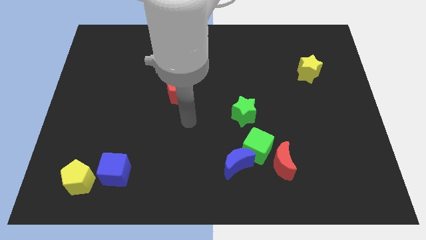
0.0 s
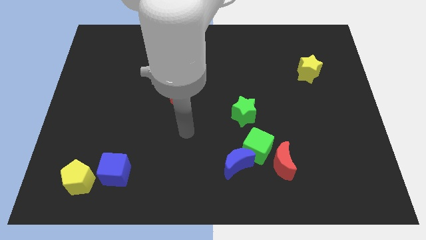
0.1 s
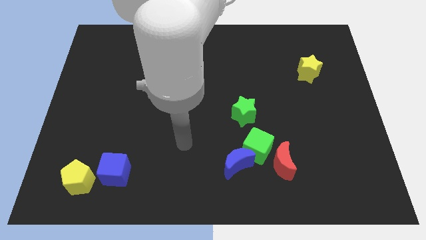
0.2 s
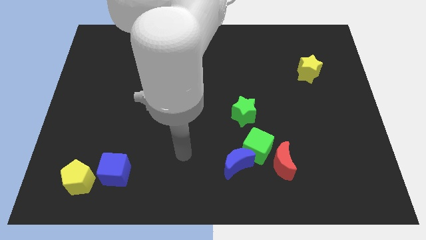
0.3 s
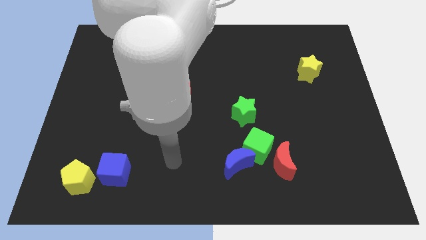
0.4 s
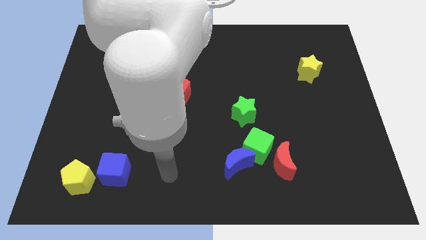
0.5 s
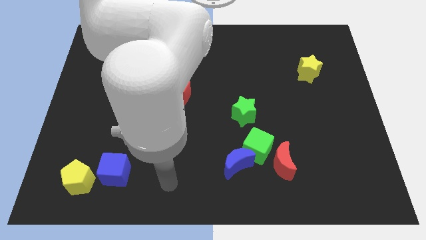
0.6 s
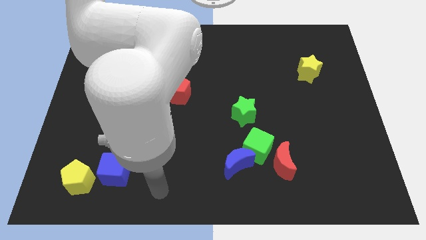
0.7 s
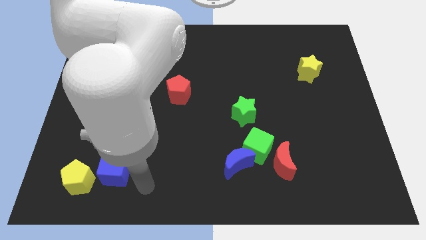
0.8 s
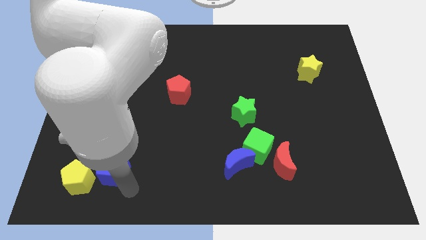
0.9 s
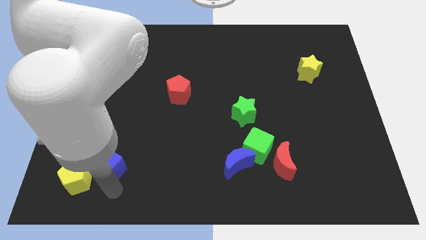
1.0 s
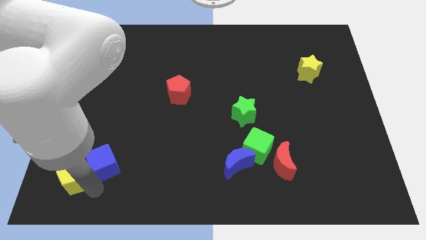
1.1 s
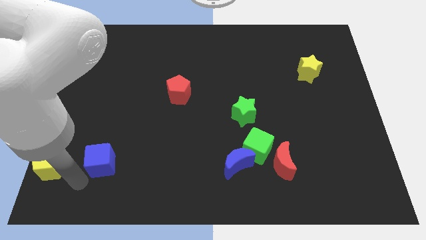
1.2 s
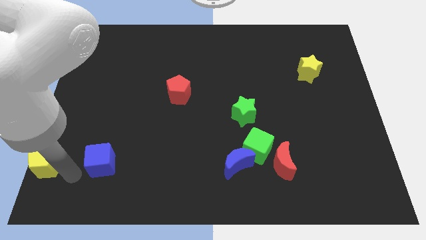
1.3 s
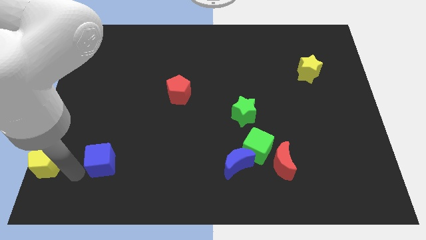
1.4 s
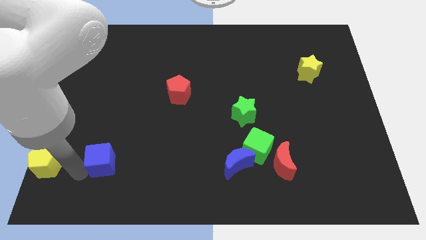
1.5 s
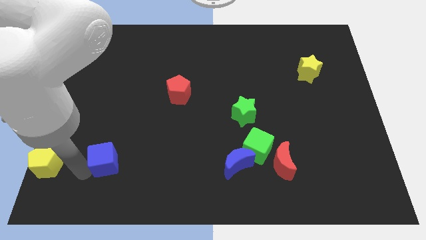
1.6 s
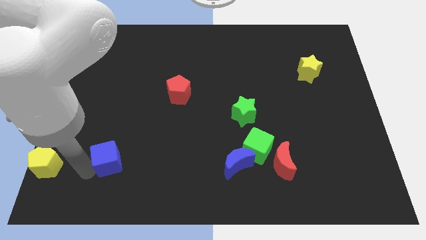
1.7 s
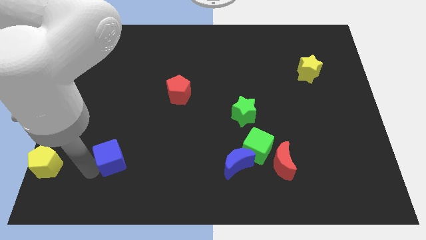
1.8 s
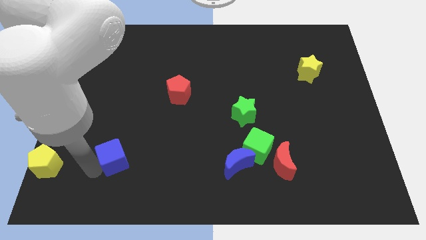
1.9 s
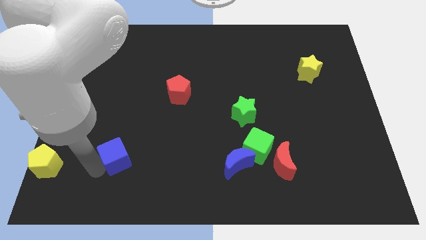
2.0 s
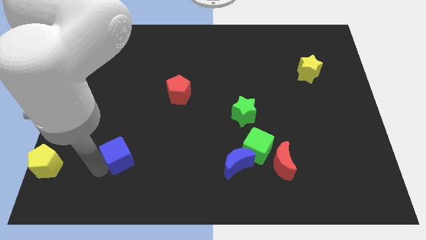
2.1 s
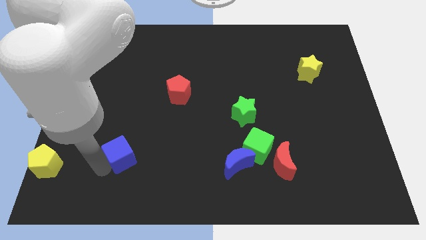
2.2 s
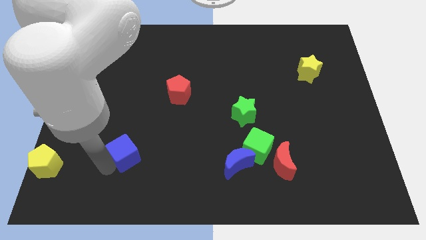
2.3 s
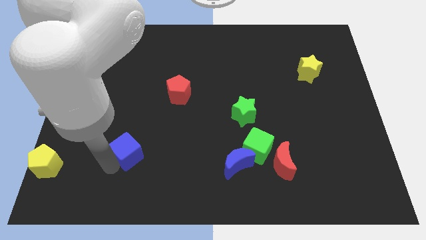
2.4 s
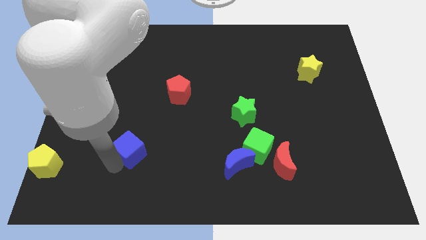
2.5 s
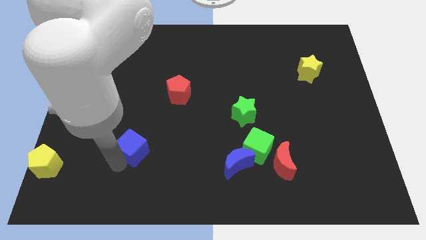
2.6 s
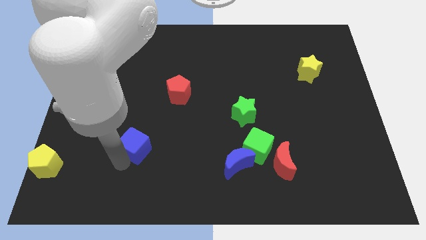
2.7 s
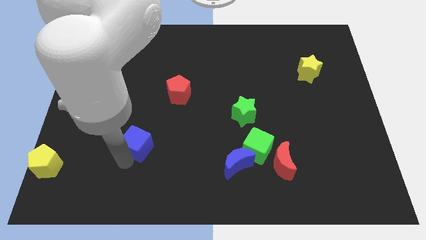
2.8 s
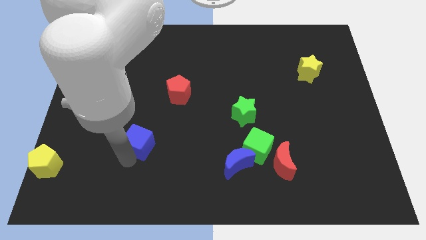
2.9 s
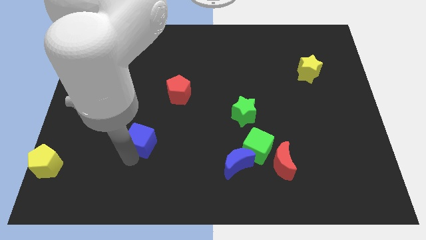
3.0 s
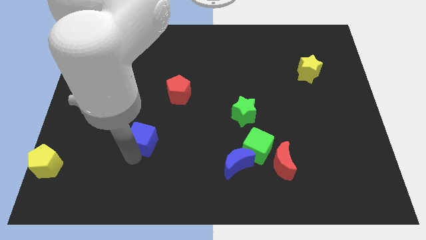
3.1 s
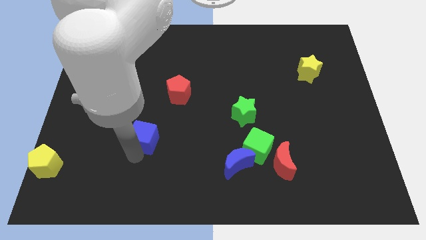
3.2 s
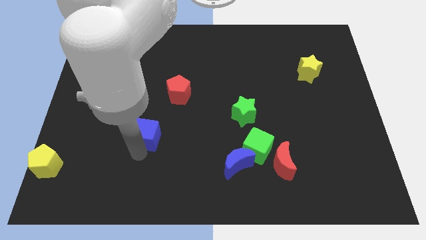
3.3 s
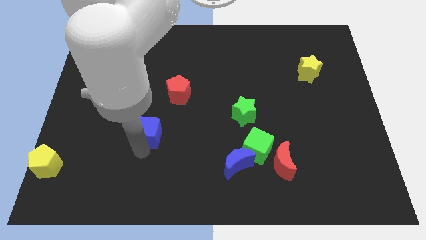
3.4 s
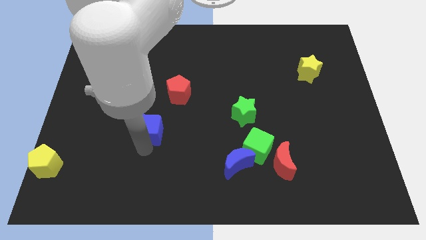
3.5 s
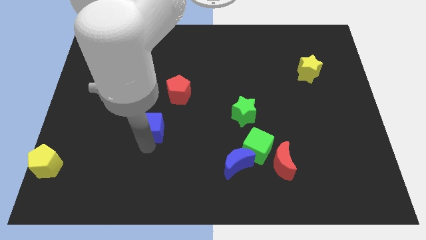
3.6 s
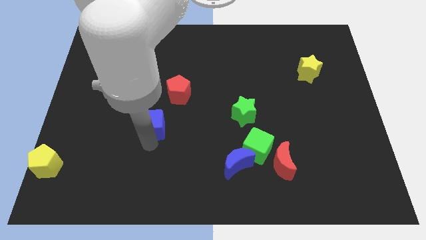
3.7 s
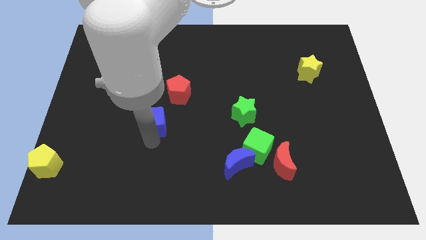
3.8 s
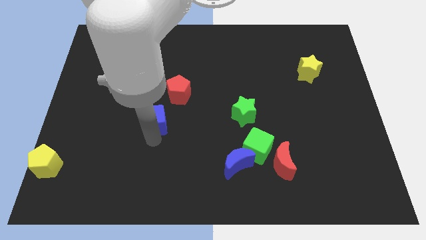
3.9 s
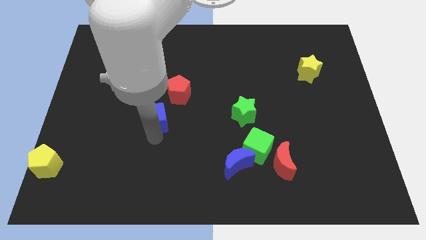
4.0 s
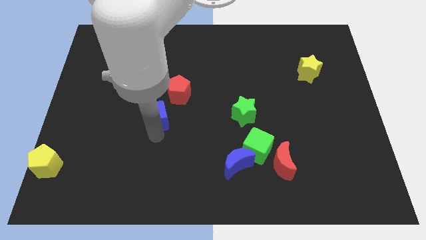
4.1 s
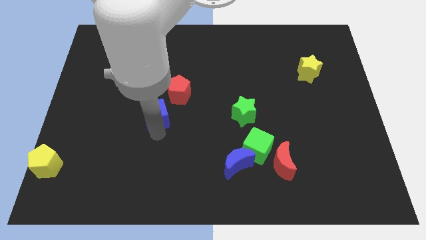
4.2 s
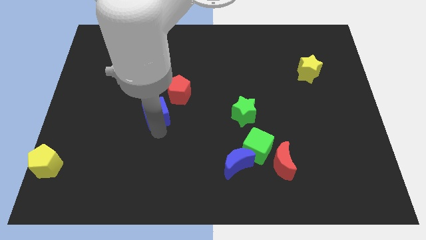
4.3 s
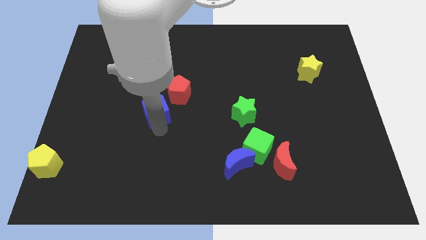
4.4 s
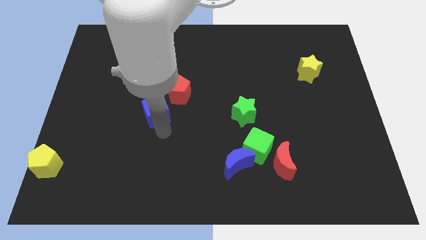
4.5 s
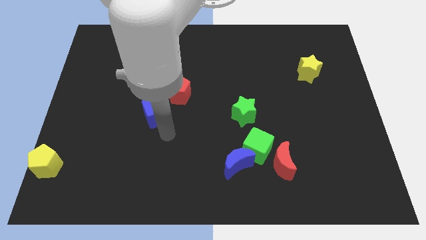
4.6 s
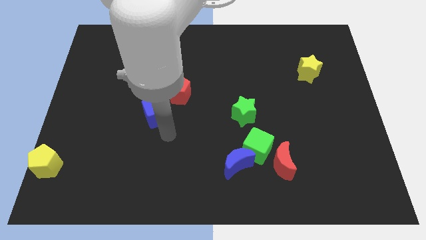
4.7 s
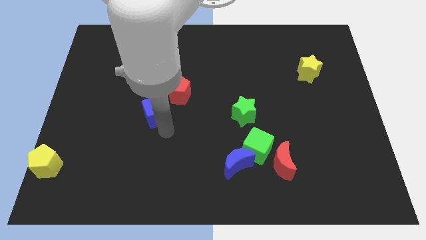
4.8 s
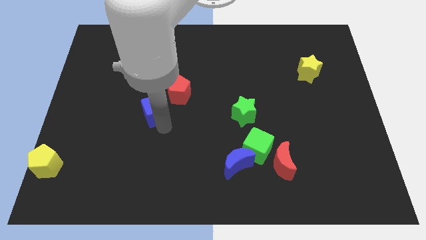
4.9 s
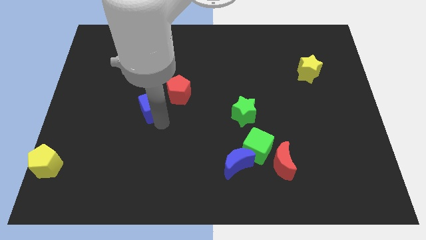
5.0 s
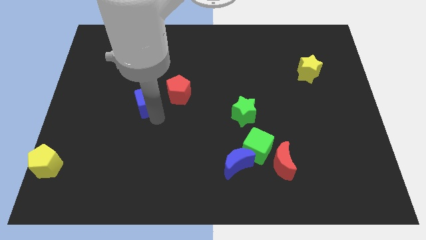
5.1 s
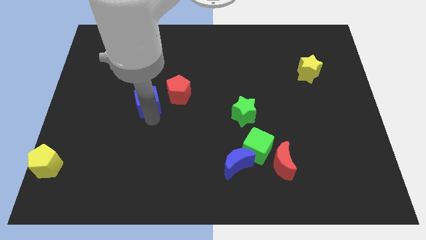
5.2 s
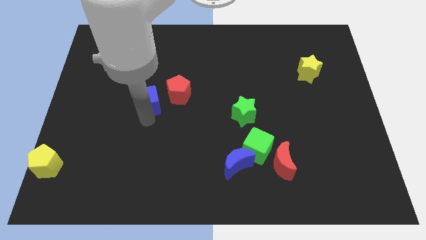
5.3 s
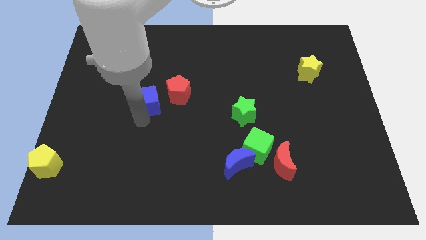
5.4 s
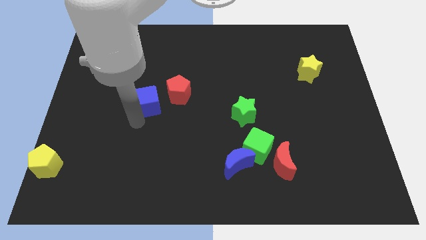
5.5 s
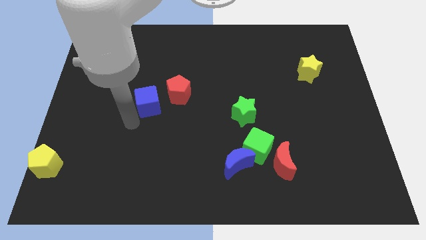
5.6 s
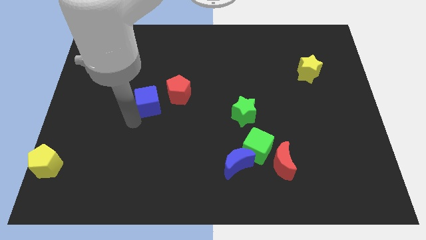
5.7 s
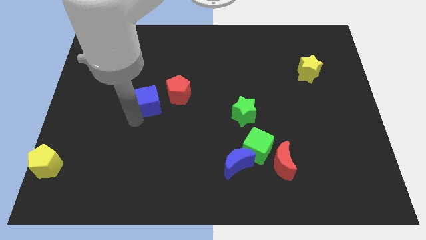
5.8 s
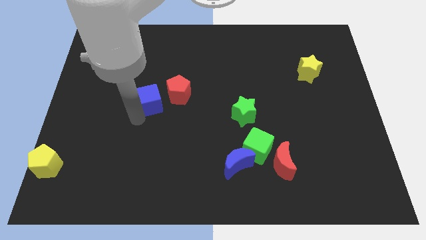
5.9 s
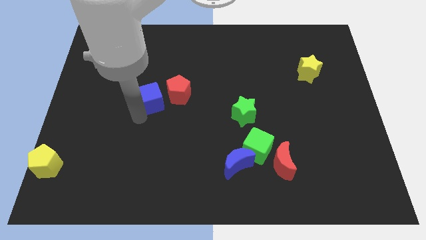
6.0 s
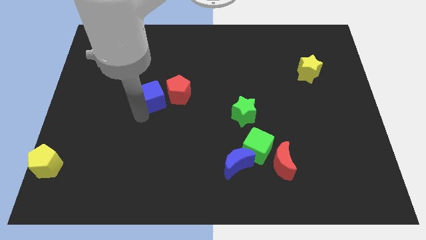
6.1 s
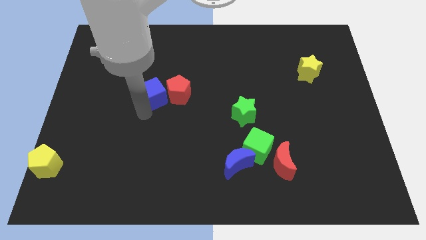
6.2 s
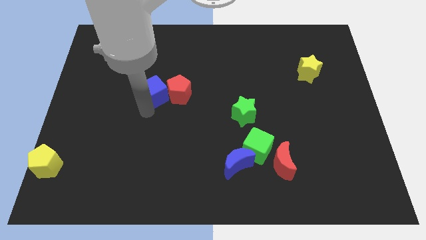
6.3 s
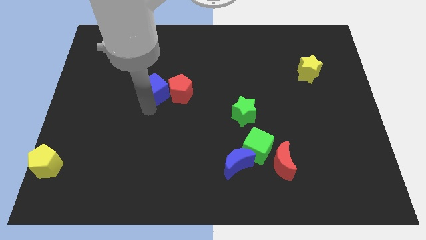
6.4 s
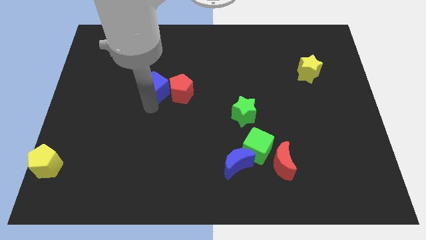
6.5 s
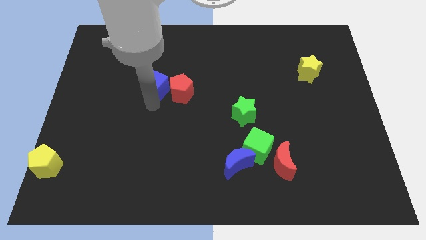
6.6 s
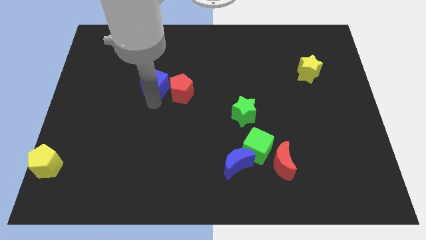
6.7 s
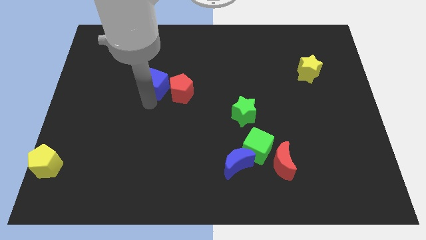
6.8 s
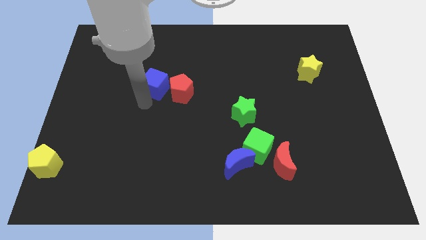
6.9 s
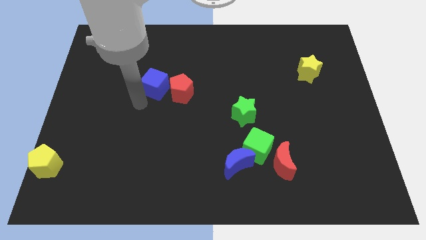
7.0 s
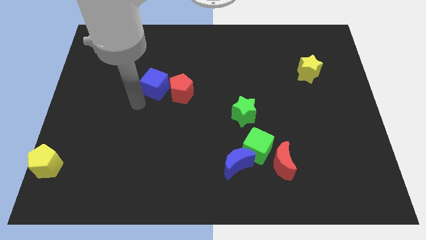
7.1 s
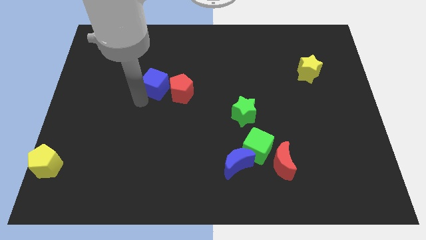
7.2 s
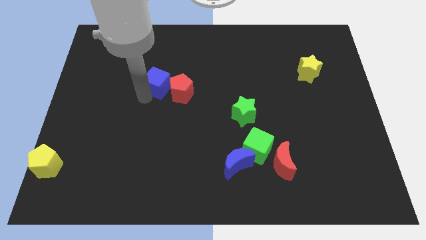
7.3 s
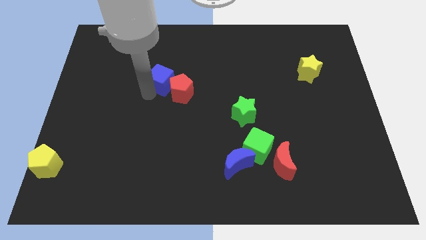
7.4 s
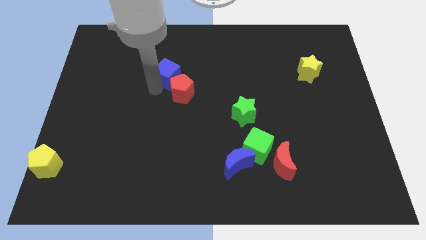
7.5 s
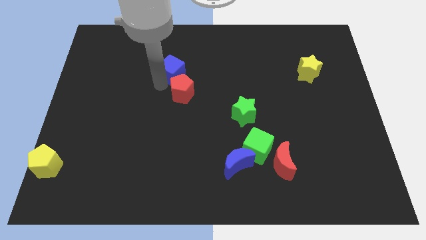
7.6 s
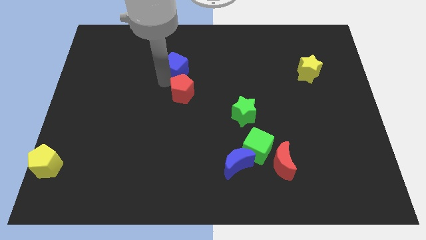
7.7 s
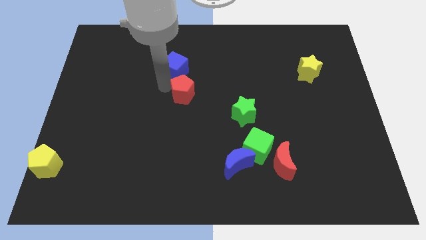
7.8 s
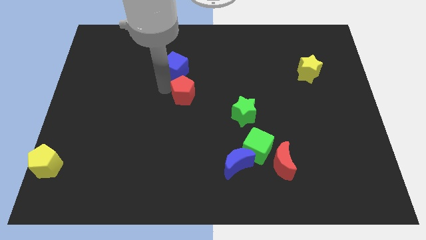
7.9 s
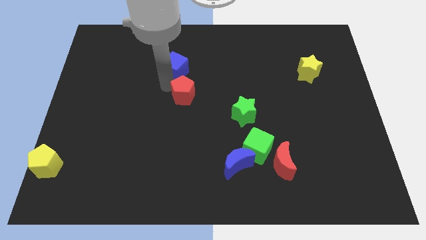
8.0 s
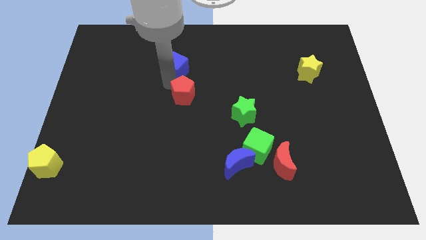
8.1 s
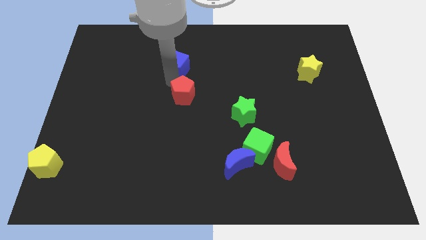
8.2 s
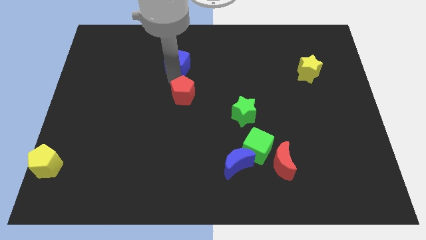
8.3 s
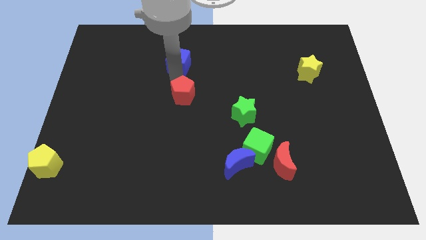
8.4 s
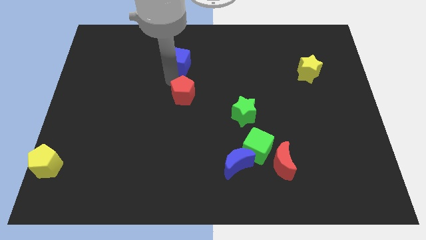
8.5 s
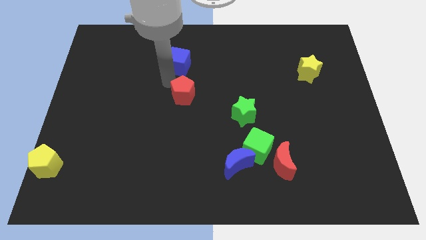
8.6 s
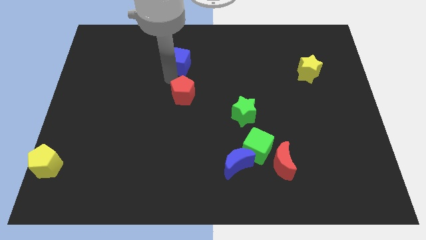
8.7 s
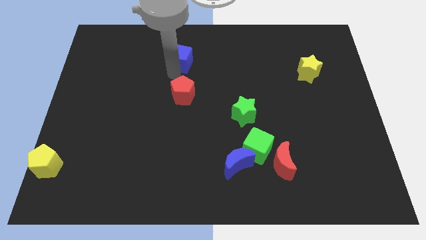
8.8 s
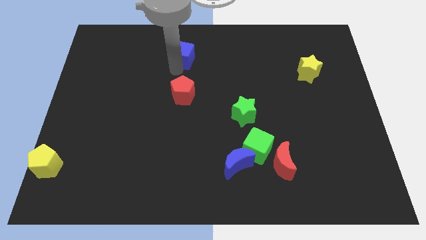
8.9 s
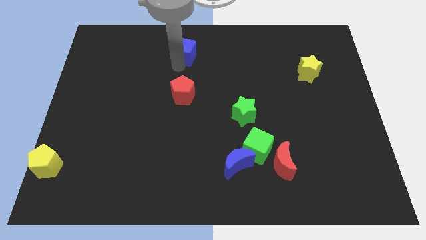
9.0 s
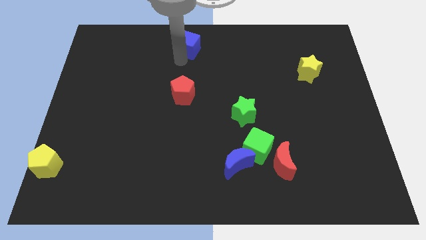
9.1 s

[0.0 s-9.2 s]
move the blue cube to the top
